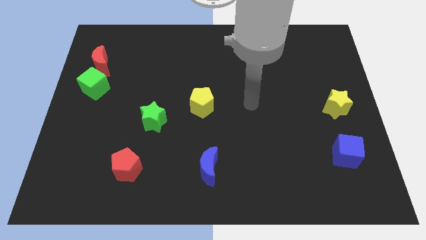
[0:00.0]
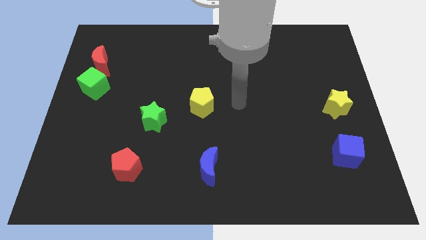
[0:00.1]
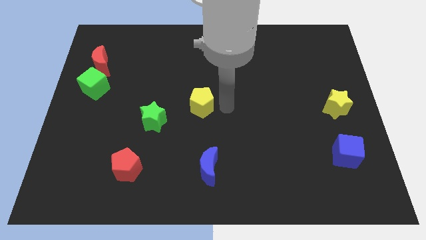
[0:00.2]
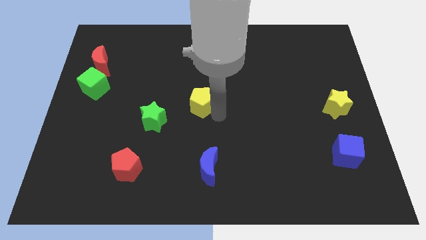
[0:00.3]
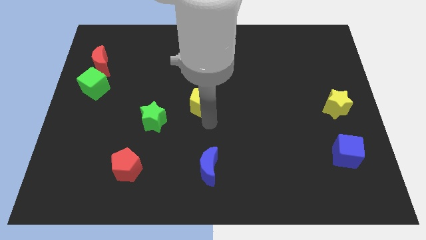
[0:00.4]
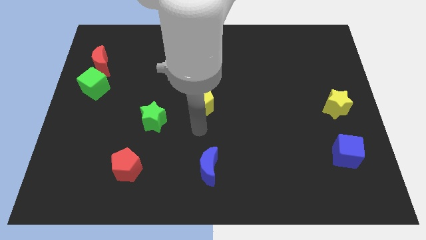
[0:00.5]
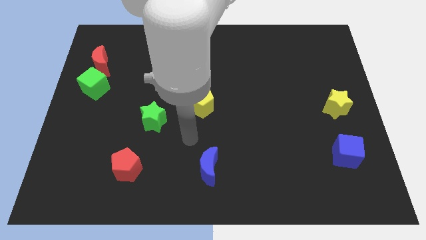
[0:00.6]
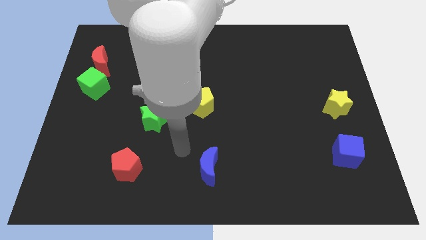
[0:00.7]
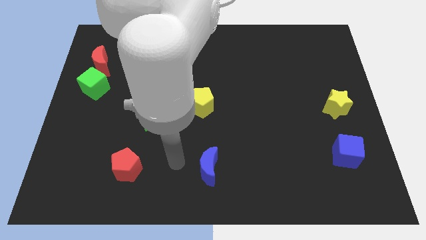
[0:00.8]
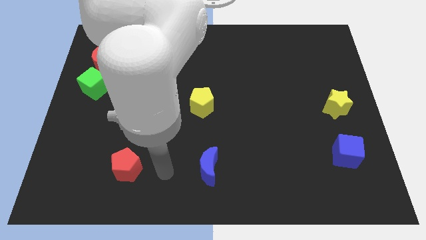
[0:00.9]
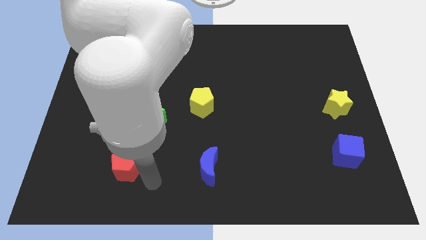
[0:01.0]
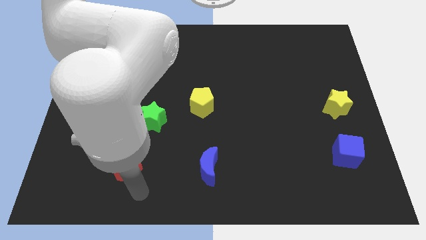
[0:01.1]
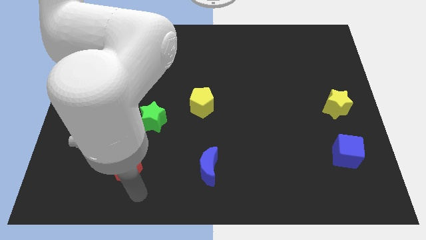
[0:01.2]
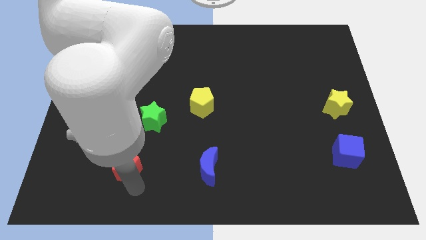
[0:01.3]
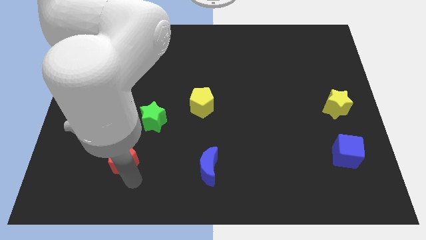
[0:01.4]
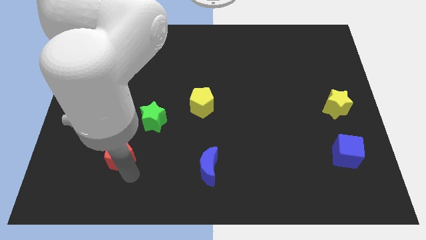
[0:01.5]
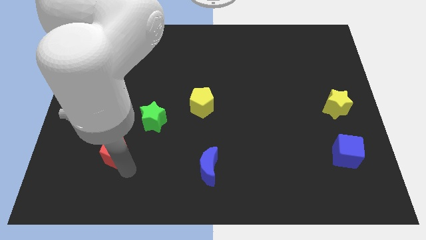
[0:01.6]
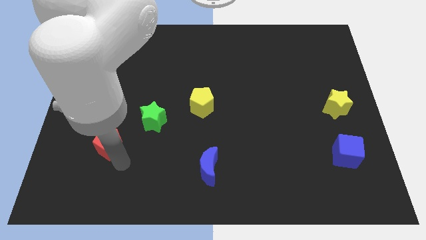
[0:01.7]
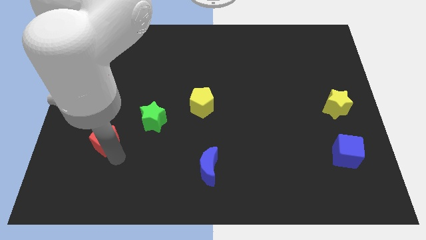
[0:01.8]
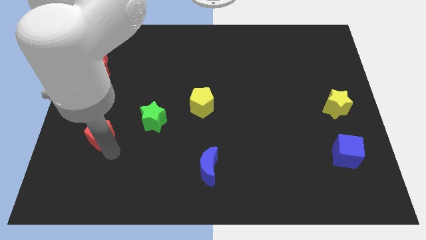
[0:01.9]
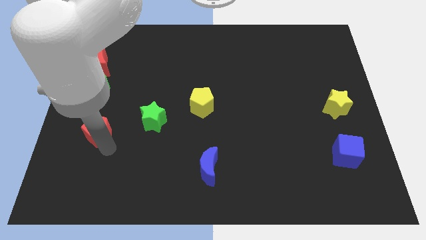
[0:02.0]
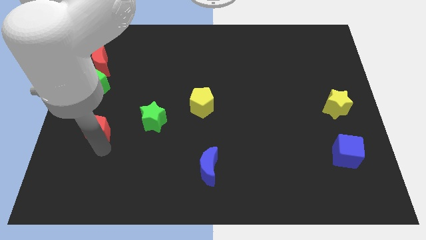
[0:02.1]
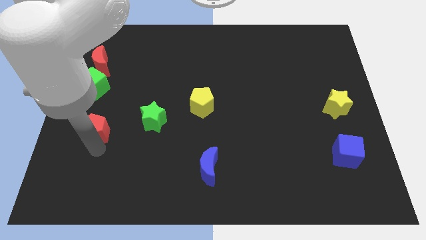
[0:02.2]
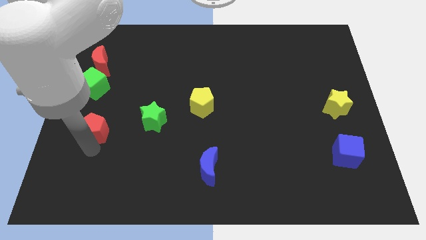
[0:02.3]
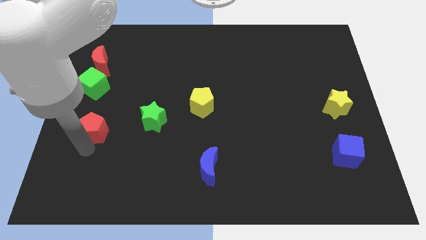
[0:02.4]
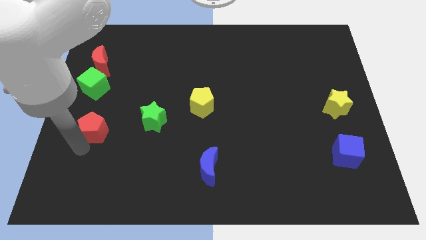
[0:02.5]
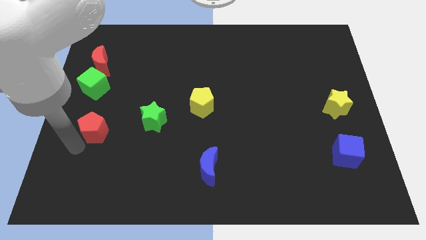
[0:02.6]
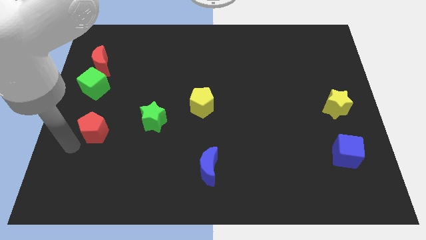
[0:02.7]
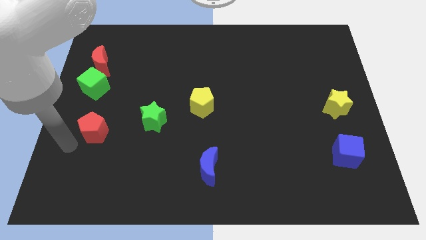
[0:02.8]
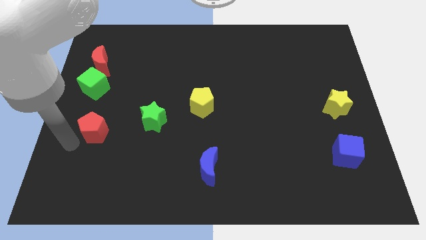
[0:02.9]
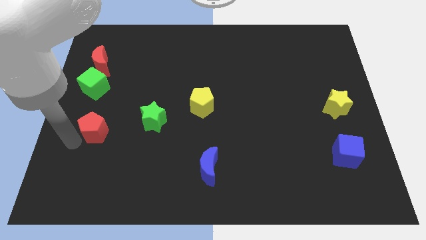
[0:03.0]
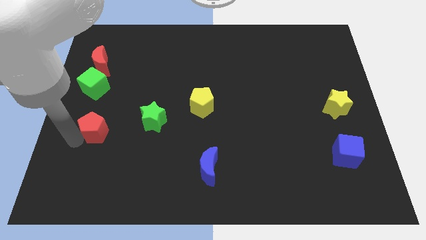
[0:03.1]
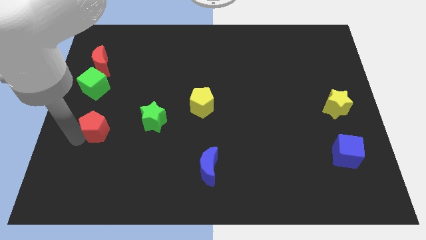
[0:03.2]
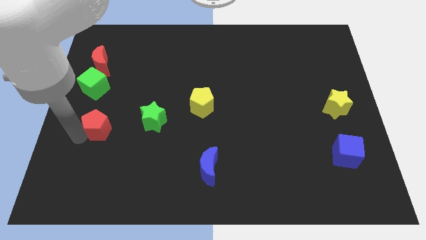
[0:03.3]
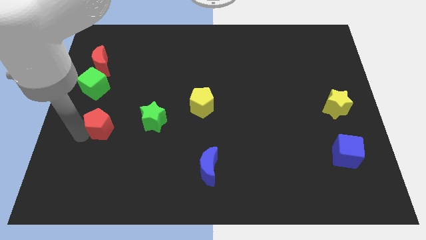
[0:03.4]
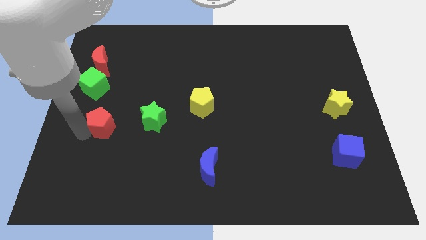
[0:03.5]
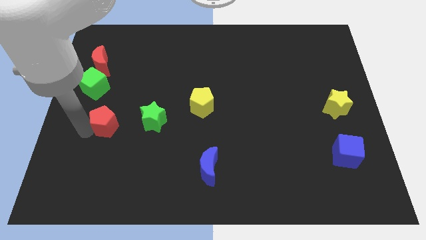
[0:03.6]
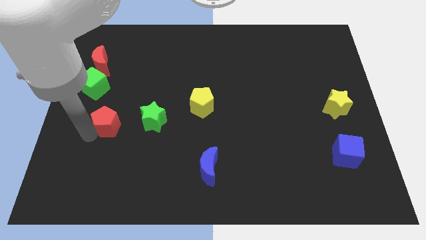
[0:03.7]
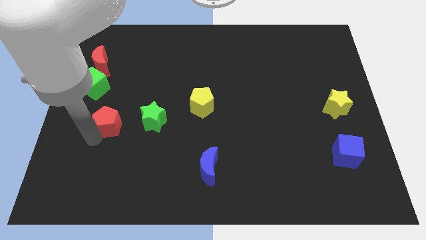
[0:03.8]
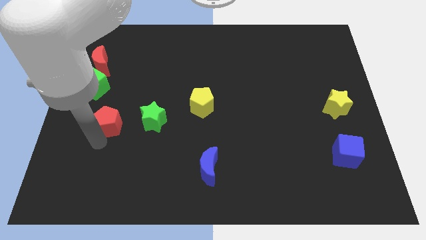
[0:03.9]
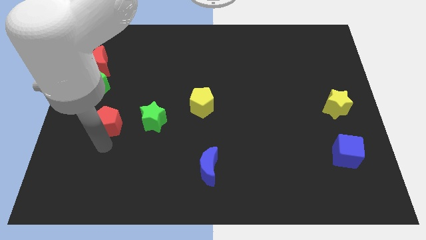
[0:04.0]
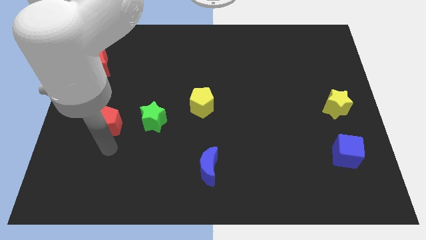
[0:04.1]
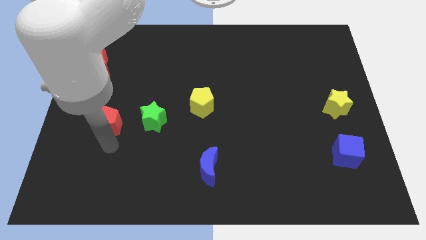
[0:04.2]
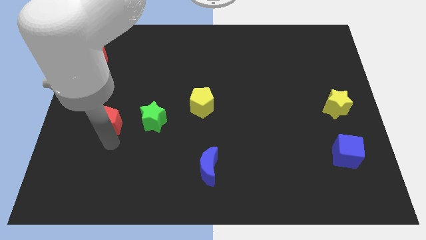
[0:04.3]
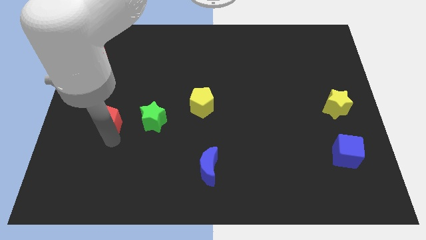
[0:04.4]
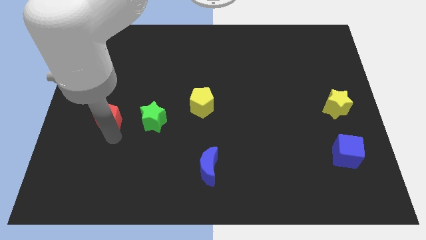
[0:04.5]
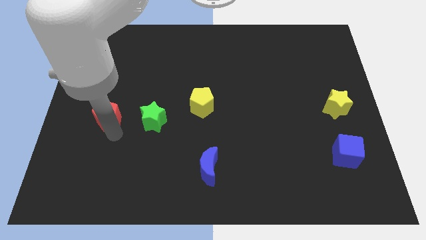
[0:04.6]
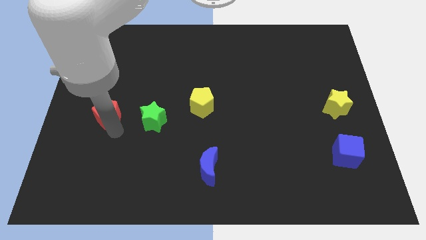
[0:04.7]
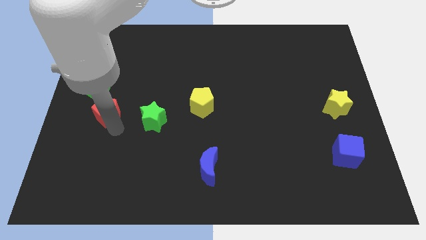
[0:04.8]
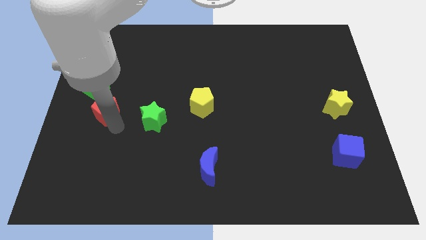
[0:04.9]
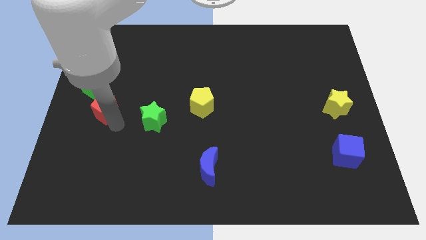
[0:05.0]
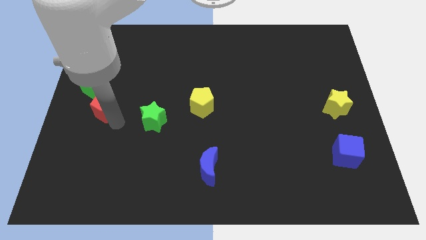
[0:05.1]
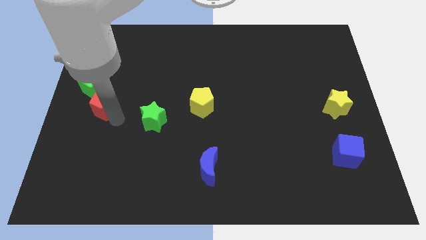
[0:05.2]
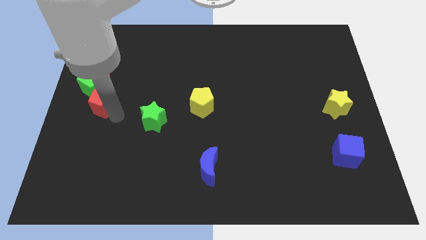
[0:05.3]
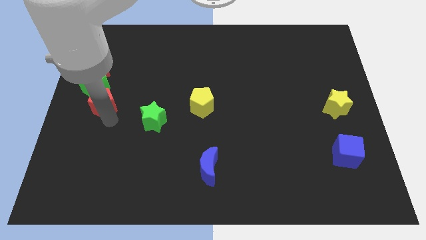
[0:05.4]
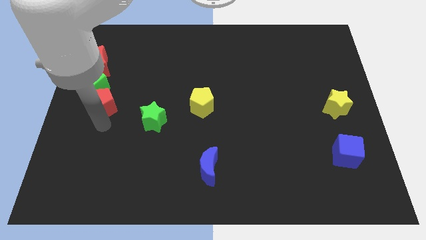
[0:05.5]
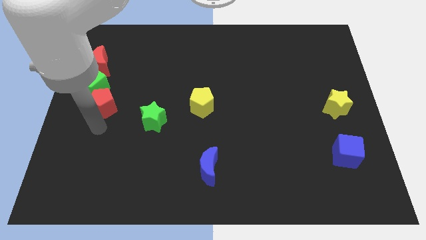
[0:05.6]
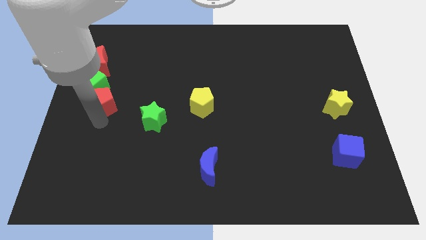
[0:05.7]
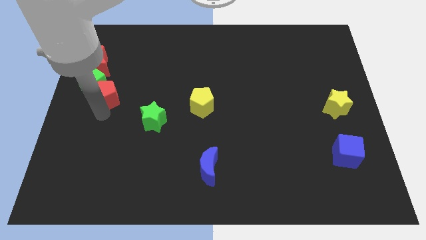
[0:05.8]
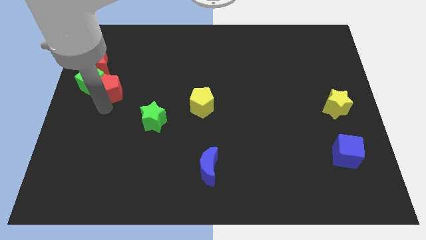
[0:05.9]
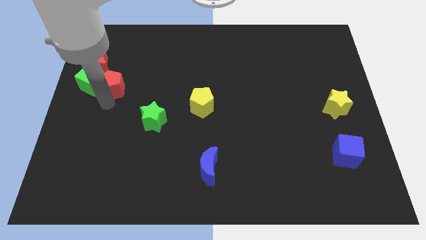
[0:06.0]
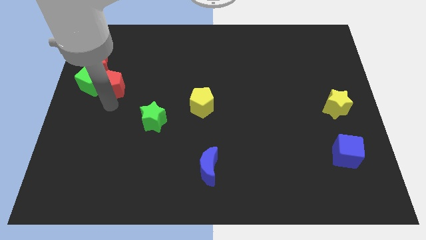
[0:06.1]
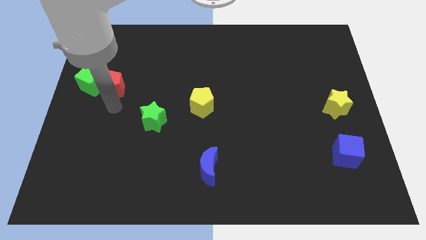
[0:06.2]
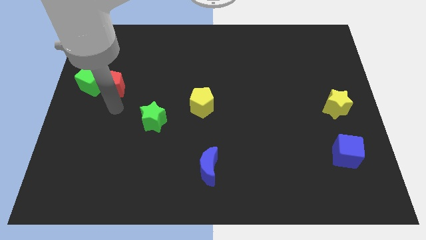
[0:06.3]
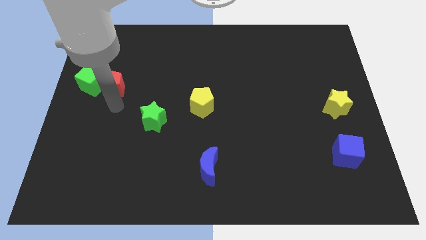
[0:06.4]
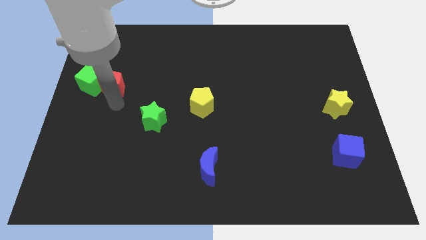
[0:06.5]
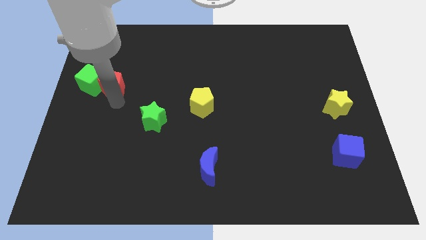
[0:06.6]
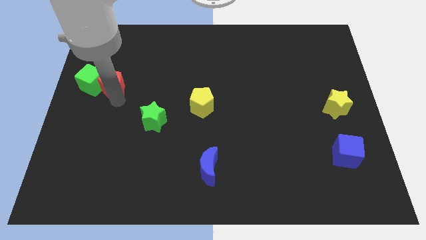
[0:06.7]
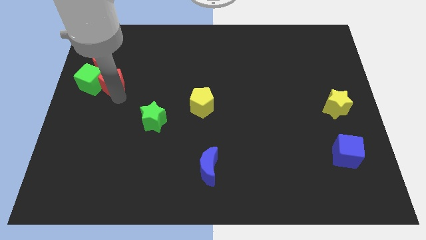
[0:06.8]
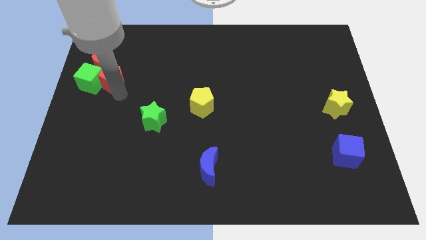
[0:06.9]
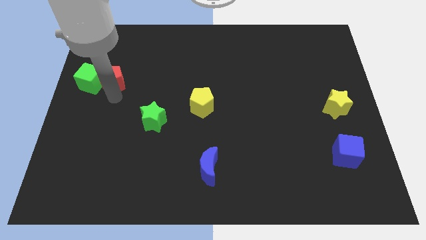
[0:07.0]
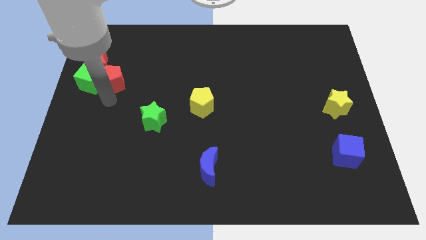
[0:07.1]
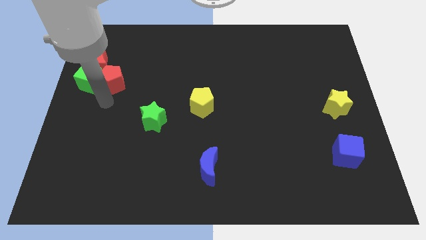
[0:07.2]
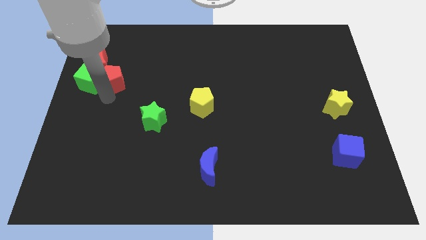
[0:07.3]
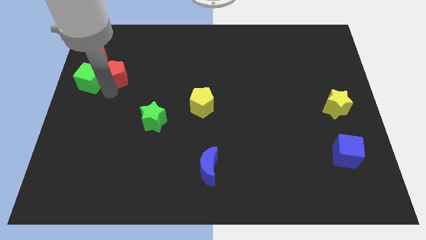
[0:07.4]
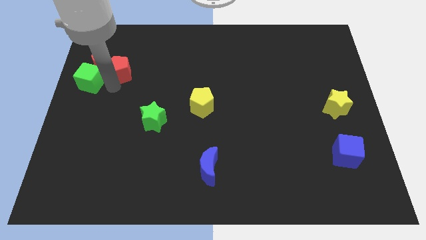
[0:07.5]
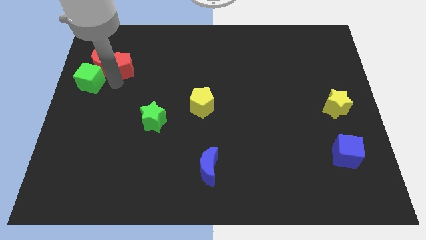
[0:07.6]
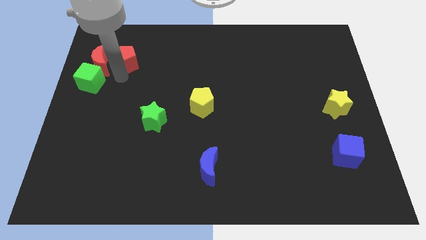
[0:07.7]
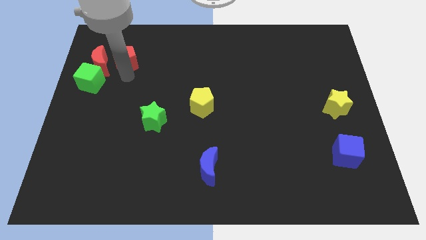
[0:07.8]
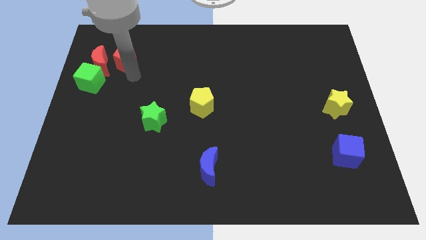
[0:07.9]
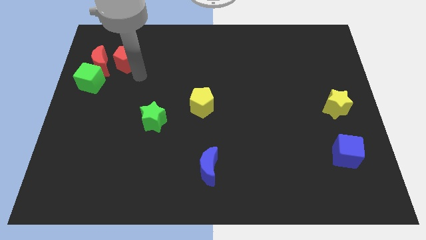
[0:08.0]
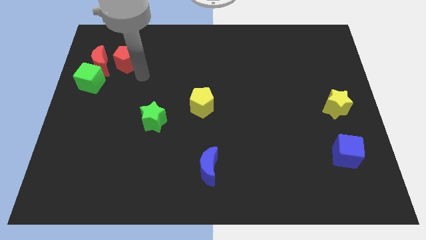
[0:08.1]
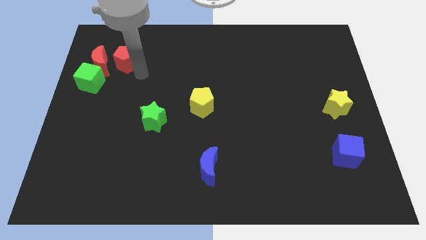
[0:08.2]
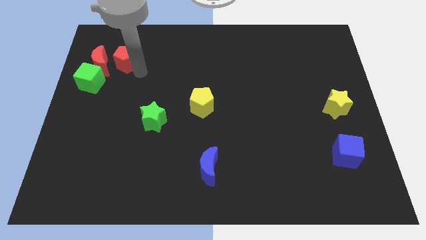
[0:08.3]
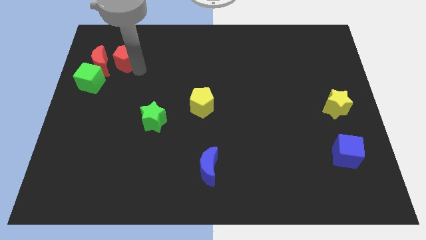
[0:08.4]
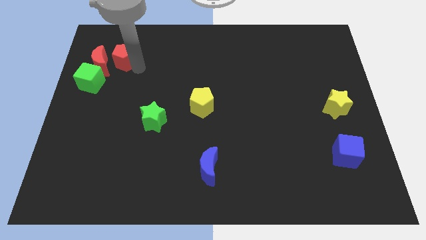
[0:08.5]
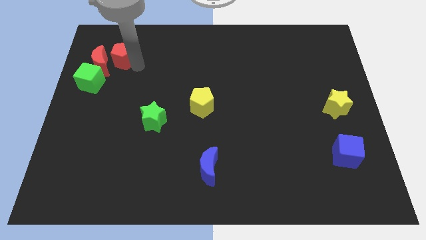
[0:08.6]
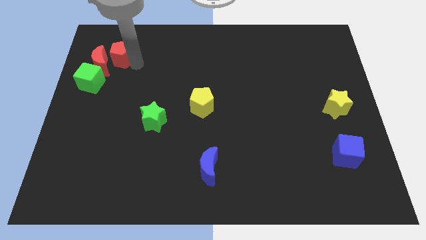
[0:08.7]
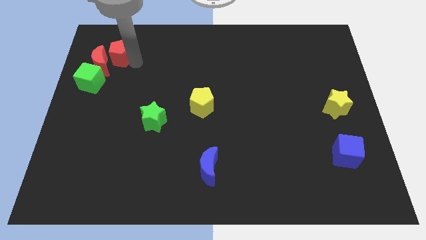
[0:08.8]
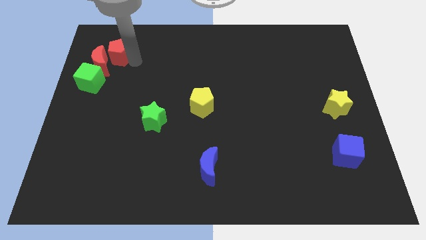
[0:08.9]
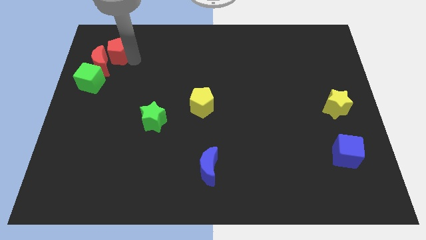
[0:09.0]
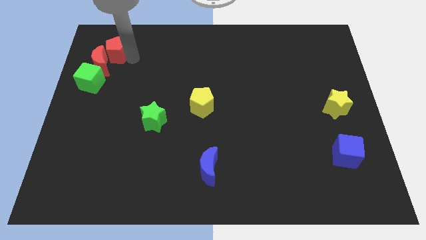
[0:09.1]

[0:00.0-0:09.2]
move the red pentagon to the top of the green cube
